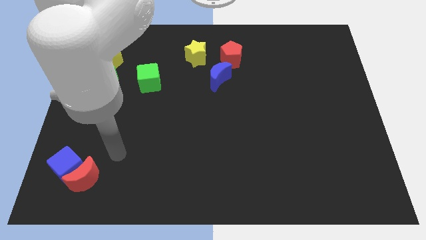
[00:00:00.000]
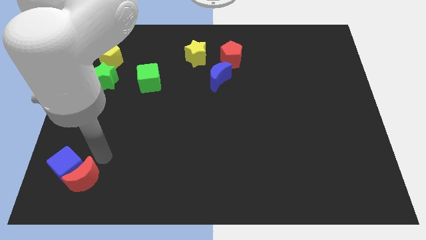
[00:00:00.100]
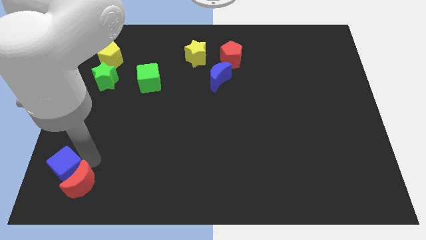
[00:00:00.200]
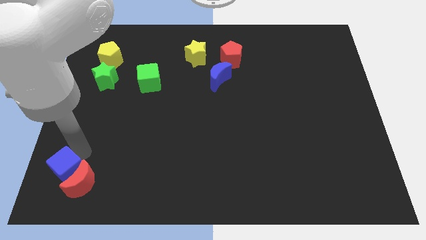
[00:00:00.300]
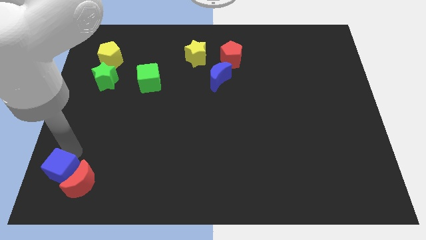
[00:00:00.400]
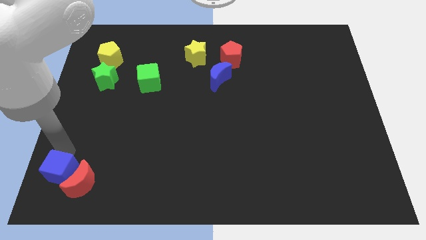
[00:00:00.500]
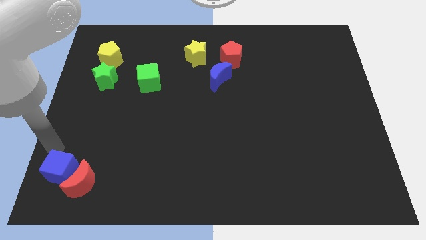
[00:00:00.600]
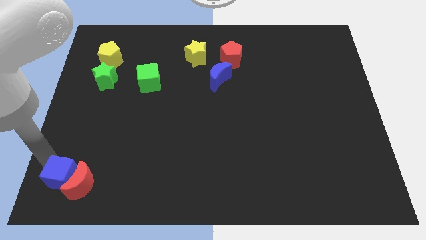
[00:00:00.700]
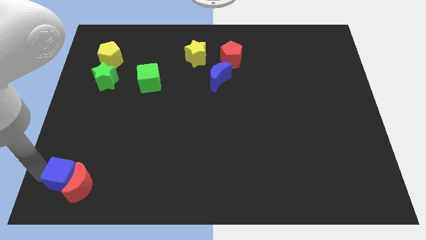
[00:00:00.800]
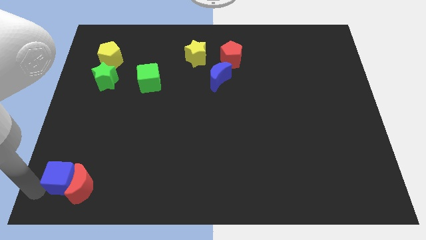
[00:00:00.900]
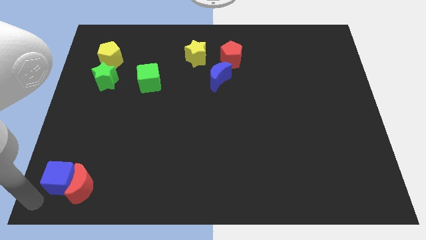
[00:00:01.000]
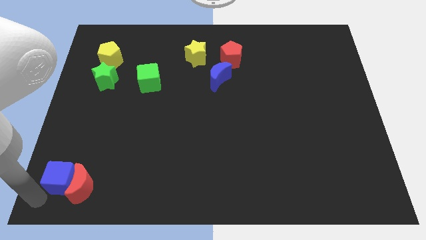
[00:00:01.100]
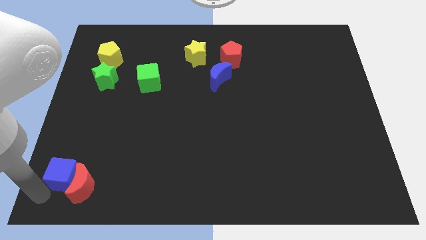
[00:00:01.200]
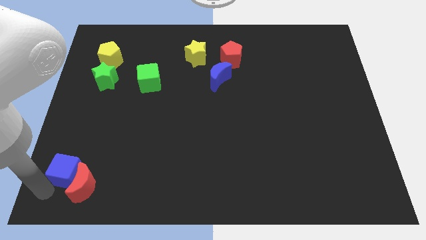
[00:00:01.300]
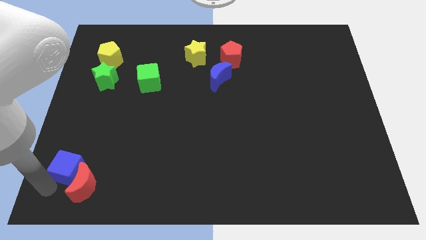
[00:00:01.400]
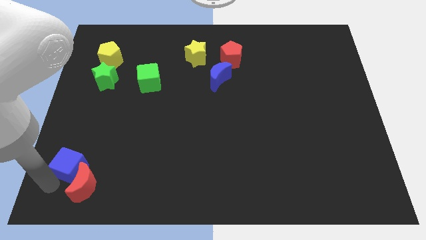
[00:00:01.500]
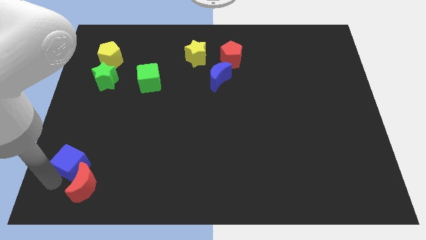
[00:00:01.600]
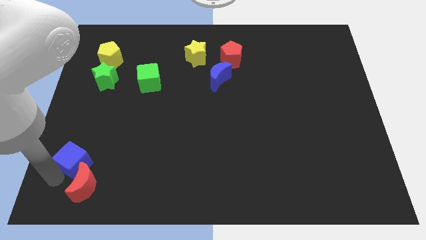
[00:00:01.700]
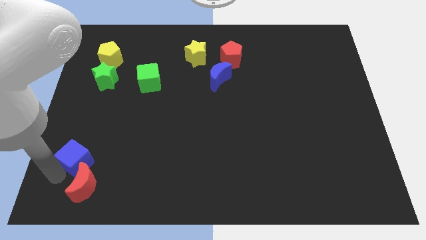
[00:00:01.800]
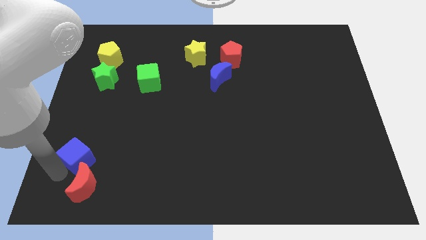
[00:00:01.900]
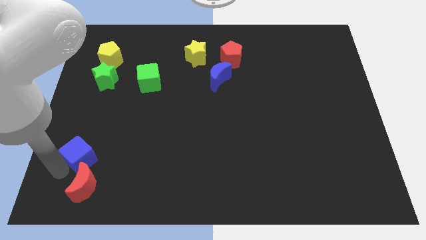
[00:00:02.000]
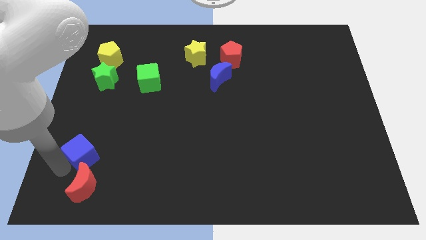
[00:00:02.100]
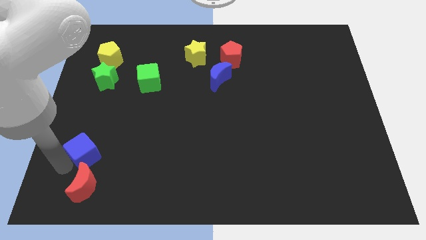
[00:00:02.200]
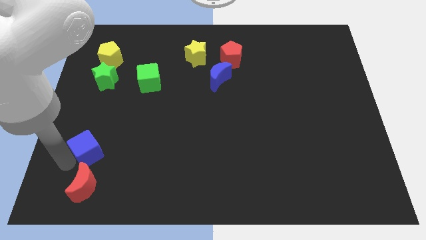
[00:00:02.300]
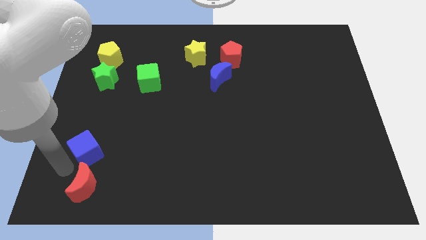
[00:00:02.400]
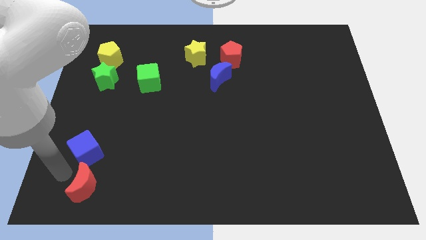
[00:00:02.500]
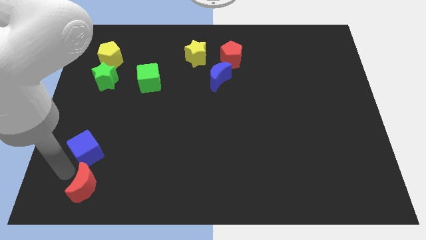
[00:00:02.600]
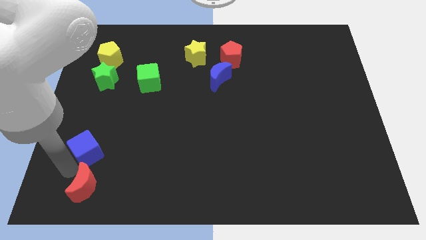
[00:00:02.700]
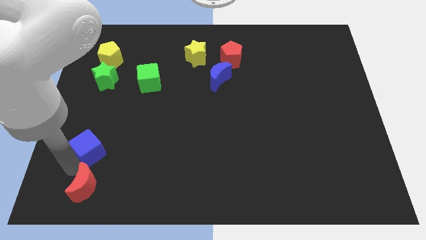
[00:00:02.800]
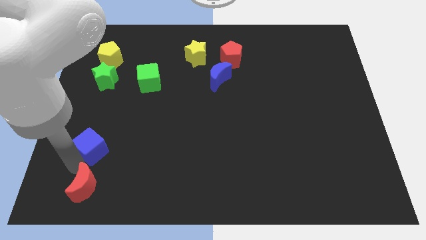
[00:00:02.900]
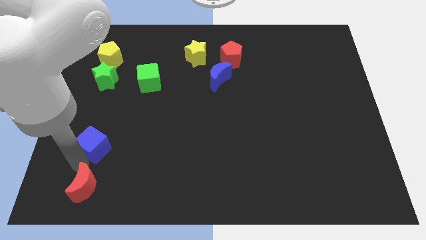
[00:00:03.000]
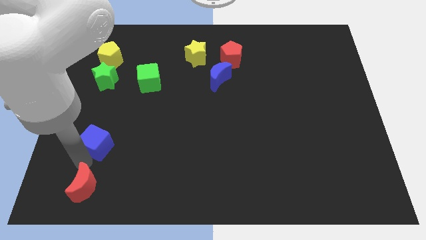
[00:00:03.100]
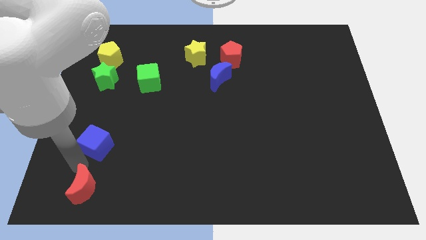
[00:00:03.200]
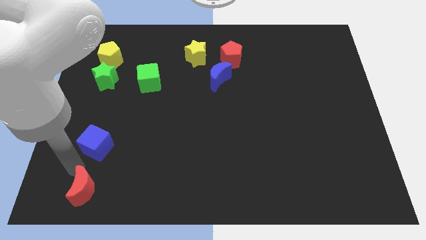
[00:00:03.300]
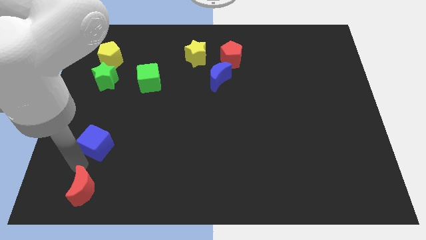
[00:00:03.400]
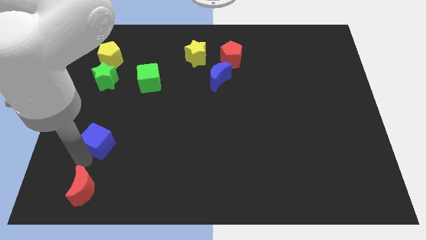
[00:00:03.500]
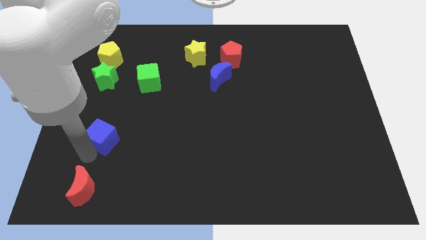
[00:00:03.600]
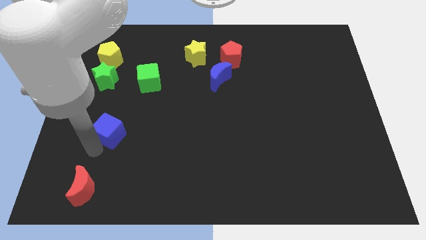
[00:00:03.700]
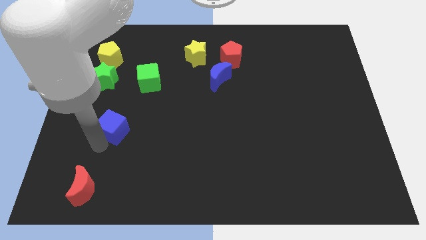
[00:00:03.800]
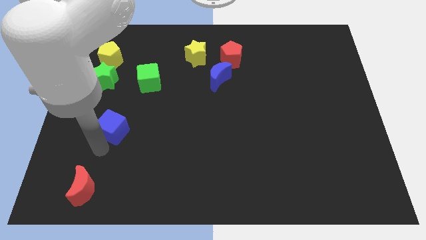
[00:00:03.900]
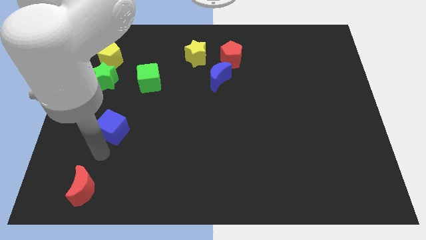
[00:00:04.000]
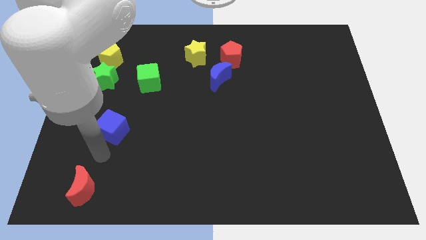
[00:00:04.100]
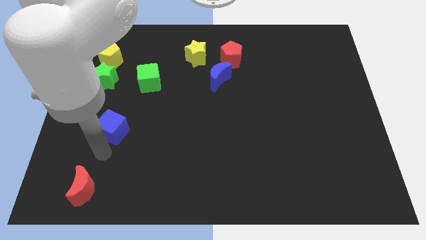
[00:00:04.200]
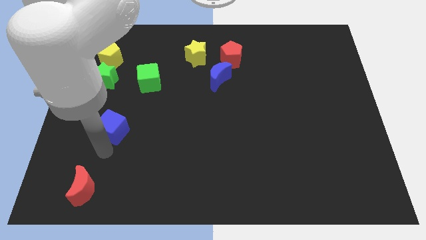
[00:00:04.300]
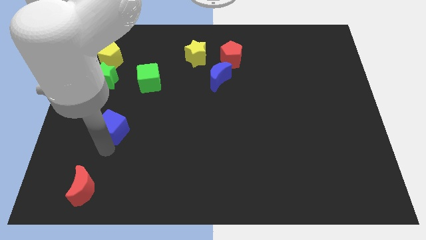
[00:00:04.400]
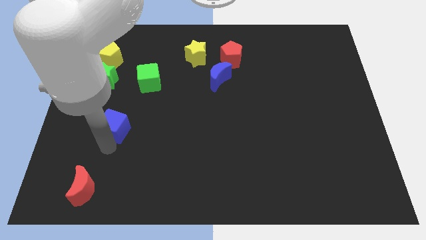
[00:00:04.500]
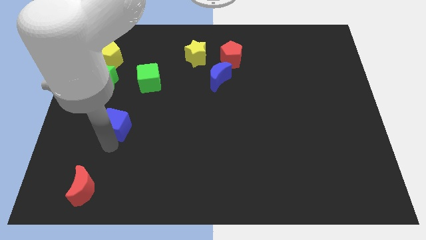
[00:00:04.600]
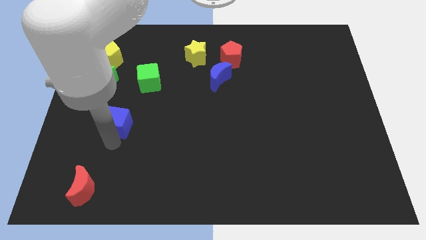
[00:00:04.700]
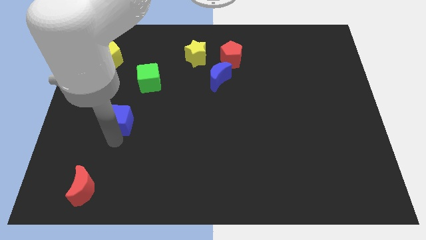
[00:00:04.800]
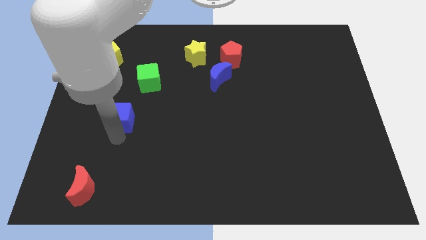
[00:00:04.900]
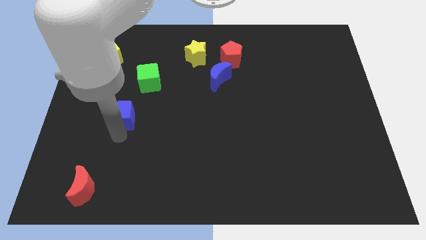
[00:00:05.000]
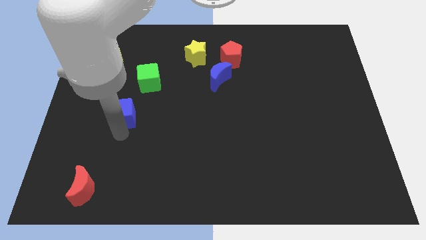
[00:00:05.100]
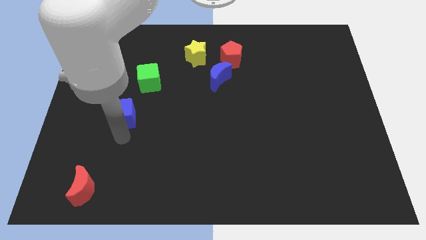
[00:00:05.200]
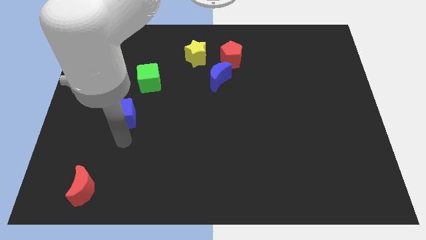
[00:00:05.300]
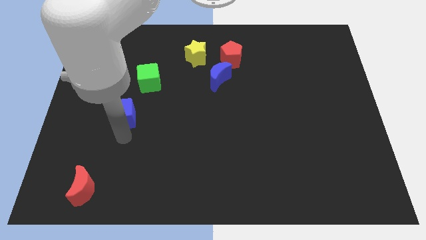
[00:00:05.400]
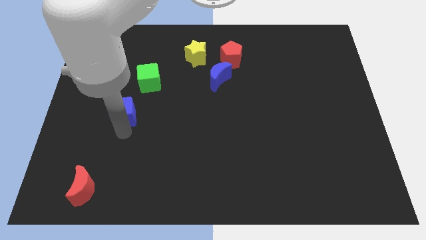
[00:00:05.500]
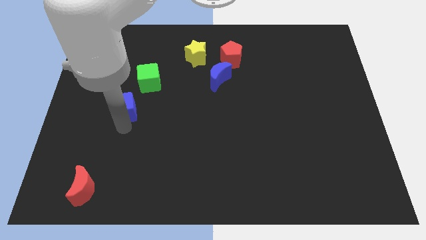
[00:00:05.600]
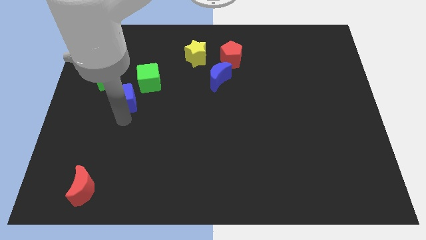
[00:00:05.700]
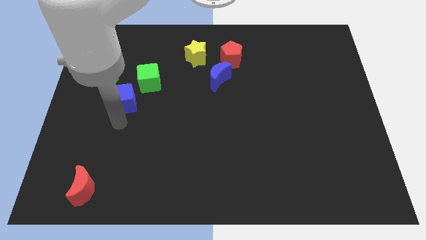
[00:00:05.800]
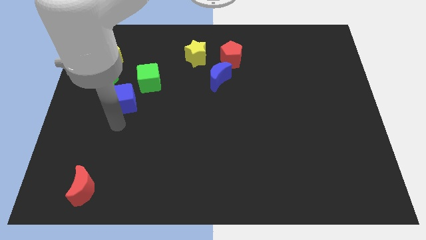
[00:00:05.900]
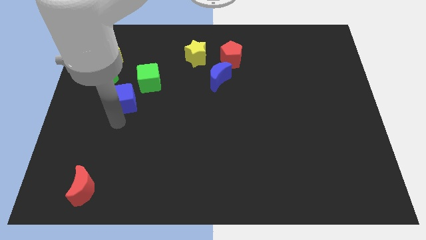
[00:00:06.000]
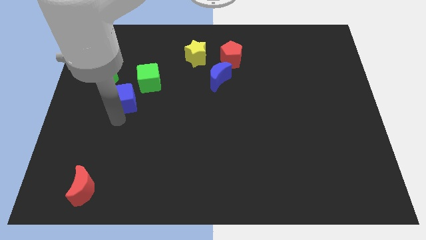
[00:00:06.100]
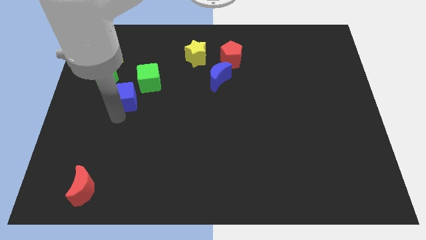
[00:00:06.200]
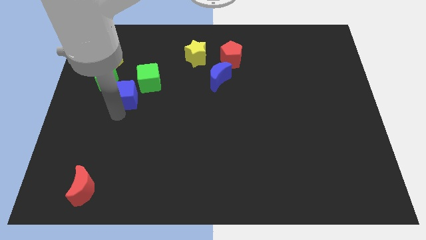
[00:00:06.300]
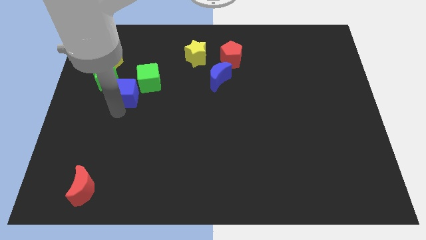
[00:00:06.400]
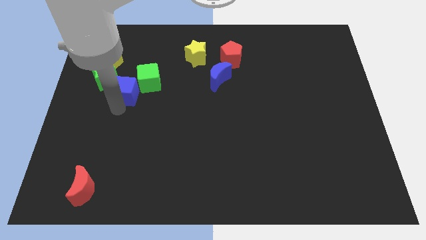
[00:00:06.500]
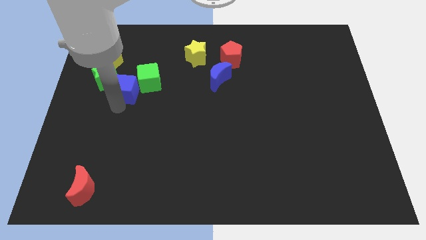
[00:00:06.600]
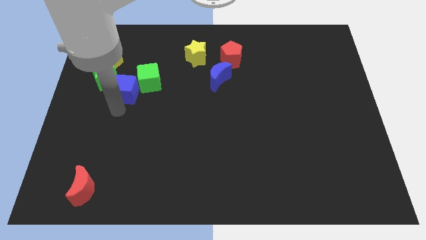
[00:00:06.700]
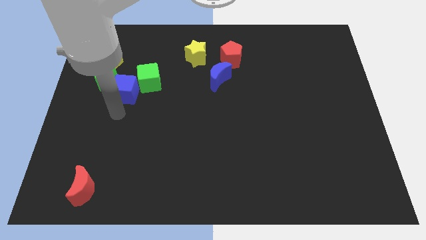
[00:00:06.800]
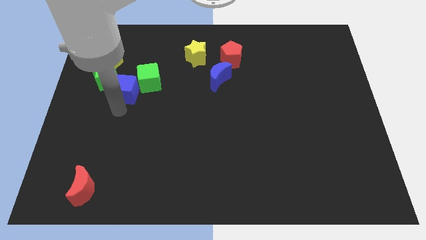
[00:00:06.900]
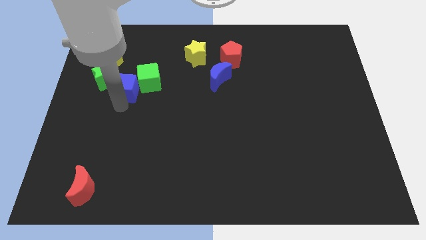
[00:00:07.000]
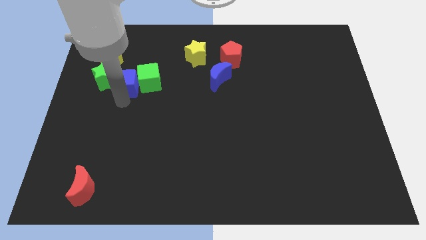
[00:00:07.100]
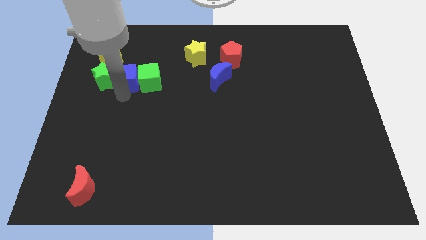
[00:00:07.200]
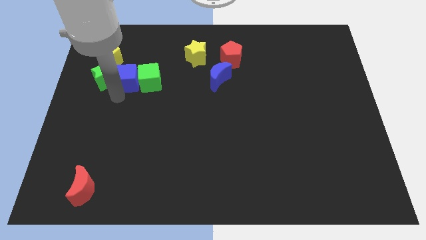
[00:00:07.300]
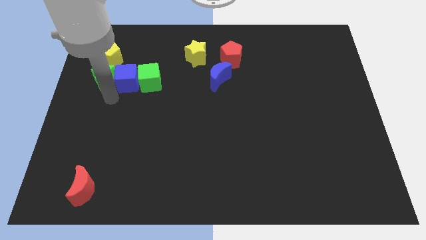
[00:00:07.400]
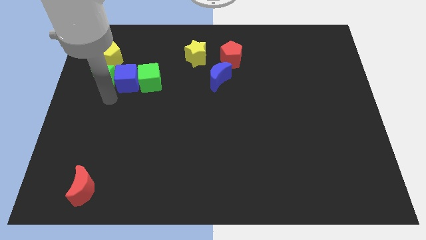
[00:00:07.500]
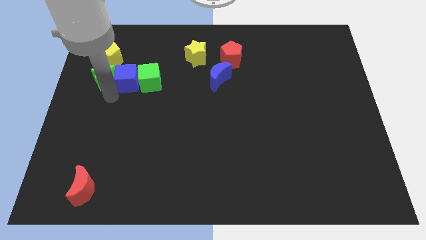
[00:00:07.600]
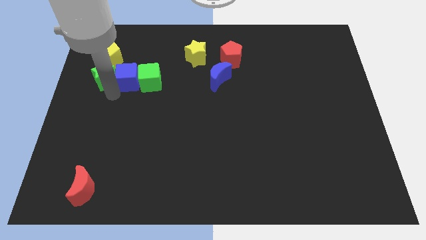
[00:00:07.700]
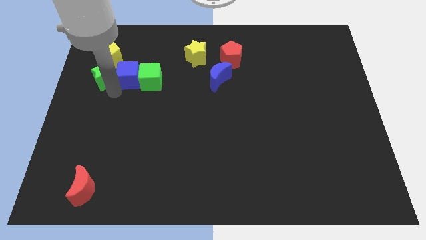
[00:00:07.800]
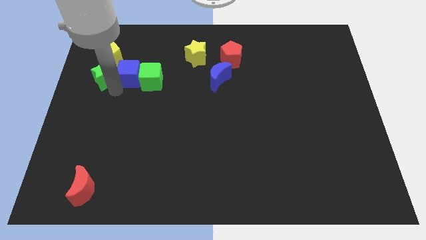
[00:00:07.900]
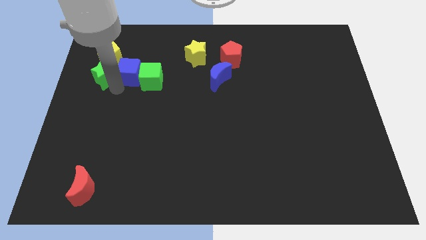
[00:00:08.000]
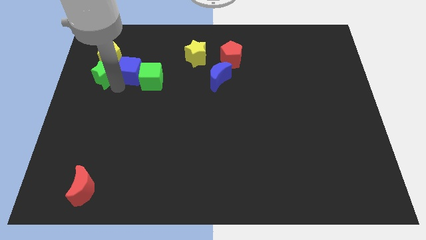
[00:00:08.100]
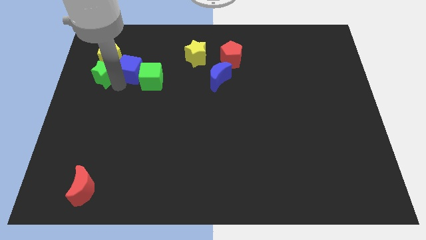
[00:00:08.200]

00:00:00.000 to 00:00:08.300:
push the blue cube to the right of the yellow pentagon
